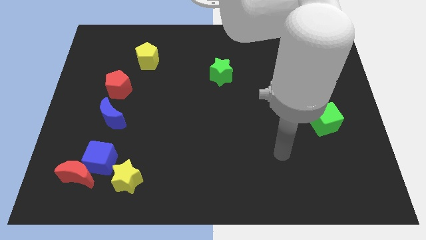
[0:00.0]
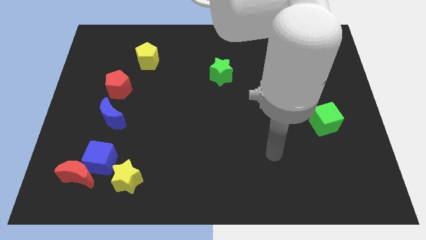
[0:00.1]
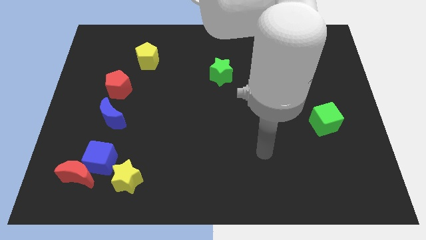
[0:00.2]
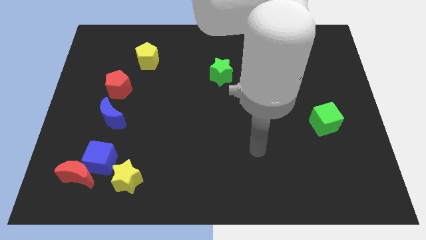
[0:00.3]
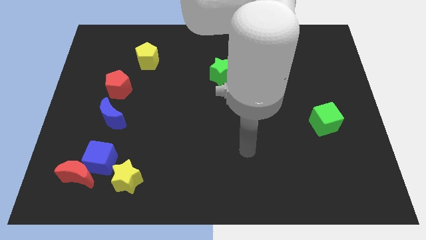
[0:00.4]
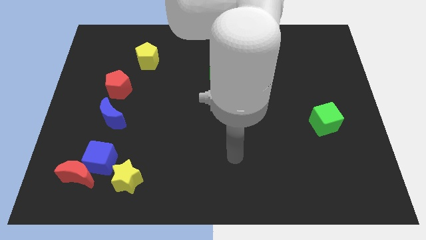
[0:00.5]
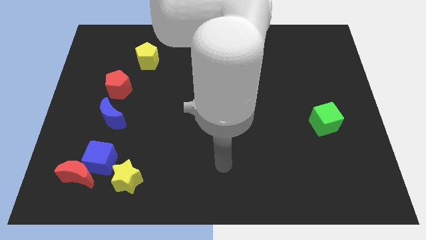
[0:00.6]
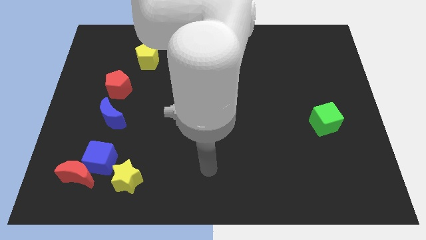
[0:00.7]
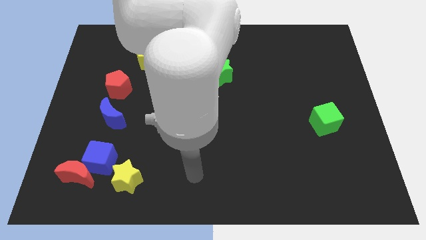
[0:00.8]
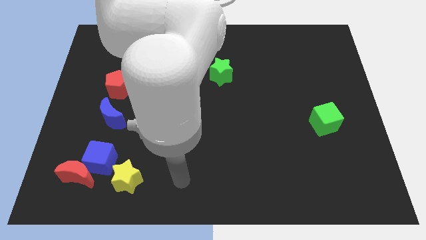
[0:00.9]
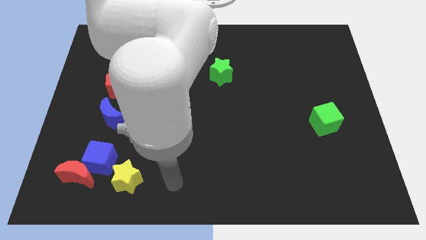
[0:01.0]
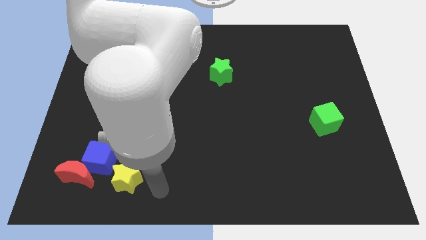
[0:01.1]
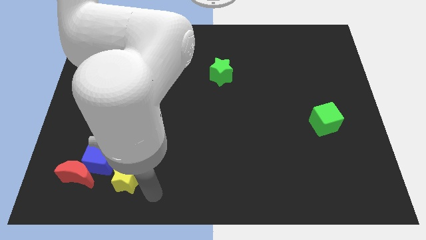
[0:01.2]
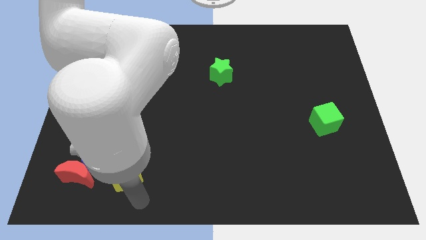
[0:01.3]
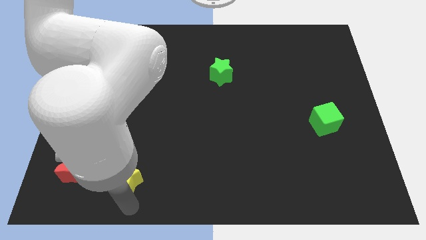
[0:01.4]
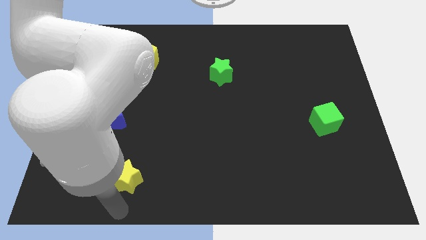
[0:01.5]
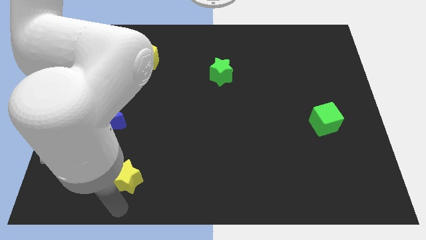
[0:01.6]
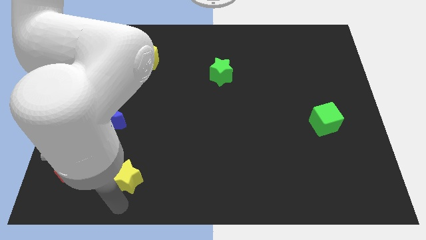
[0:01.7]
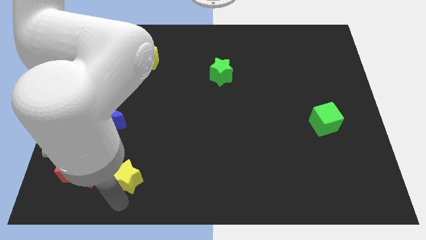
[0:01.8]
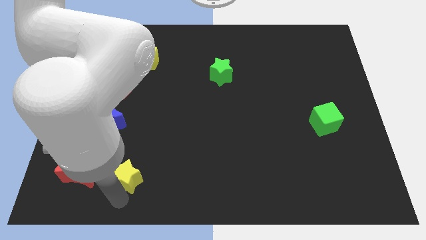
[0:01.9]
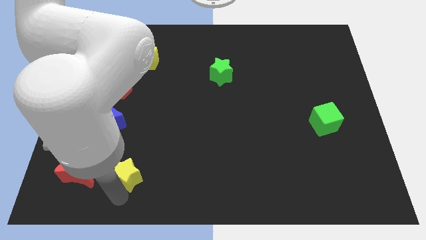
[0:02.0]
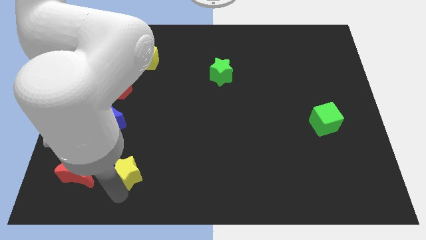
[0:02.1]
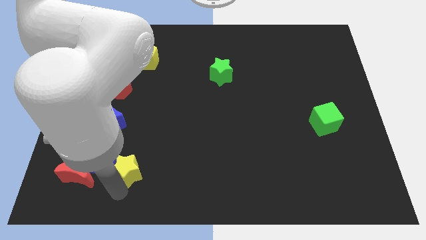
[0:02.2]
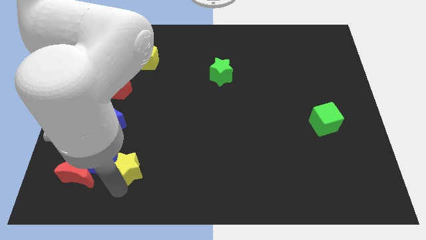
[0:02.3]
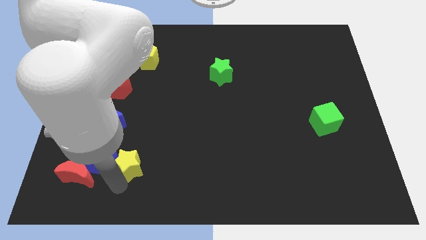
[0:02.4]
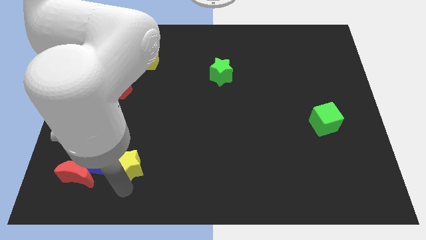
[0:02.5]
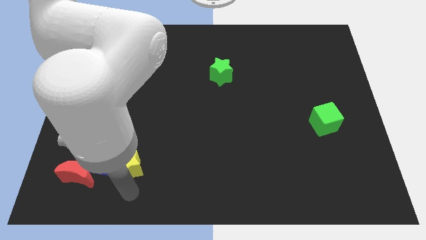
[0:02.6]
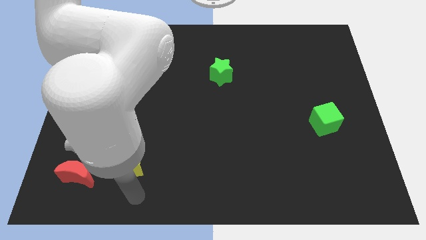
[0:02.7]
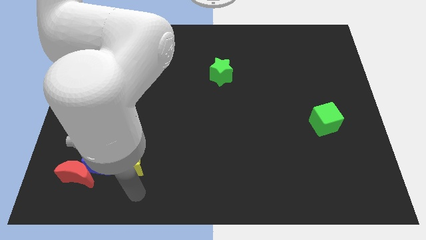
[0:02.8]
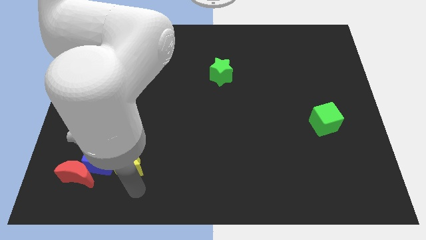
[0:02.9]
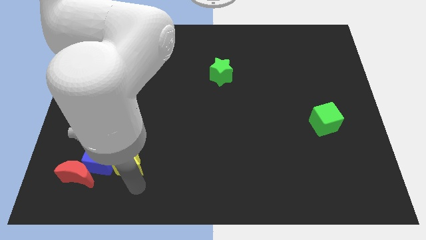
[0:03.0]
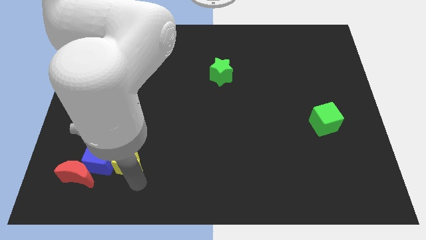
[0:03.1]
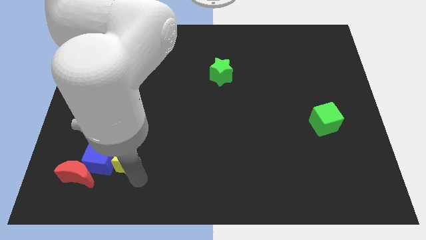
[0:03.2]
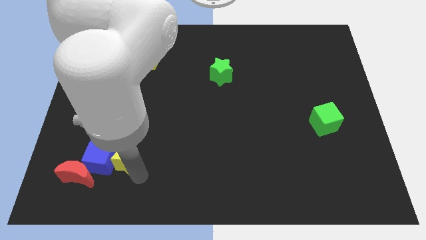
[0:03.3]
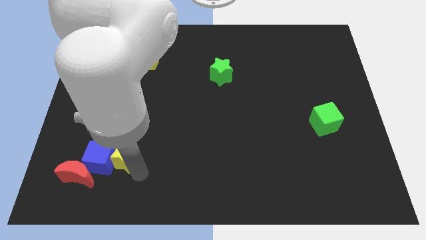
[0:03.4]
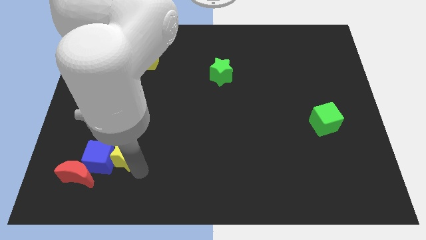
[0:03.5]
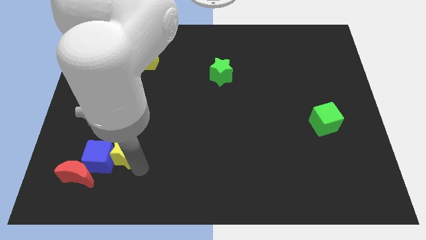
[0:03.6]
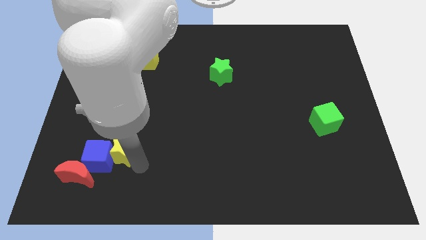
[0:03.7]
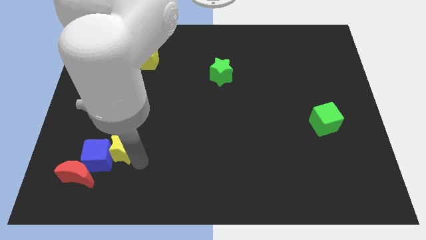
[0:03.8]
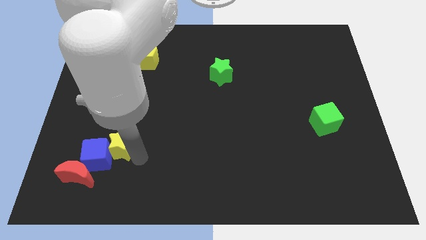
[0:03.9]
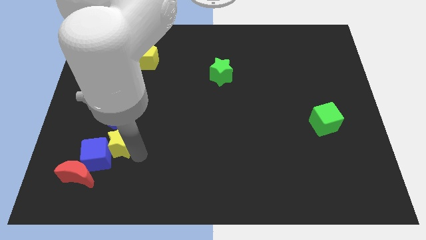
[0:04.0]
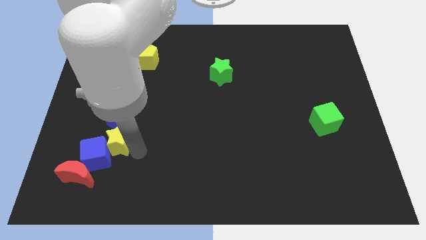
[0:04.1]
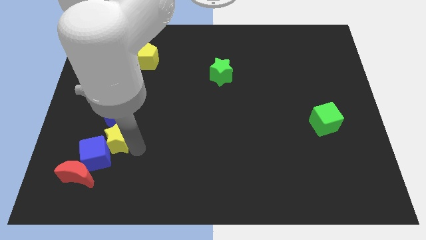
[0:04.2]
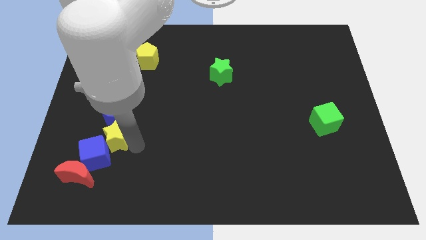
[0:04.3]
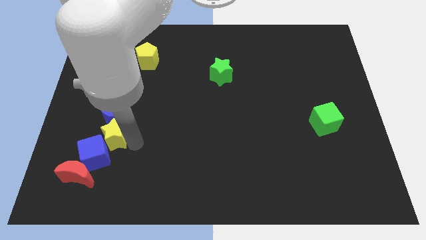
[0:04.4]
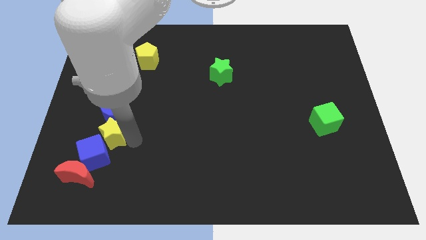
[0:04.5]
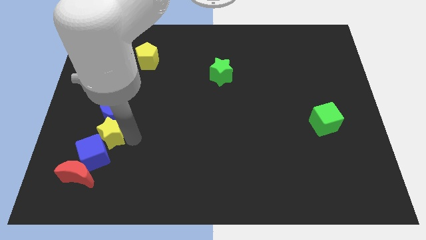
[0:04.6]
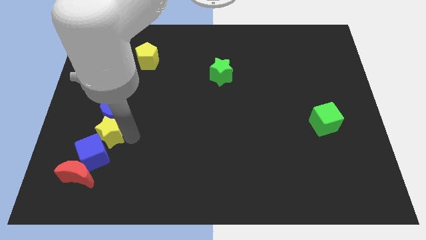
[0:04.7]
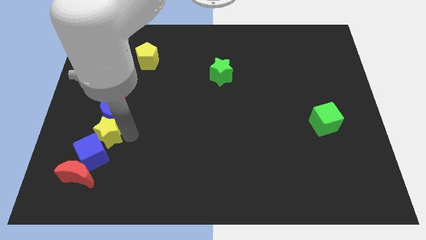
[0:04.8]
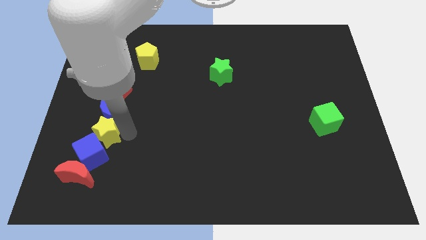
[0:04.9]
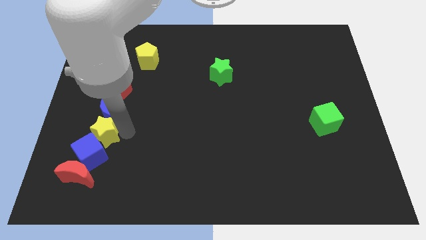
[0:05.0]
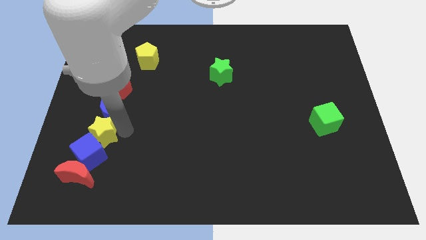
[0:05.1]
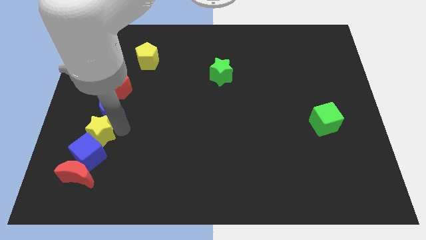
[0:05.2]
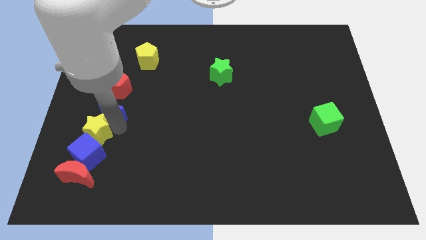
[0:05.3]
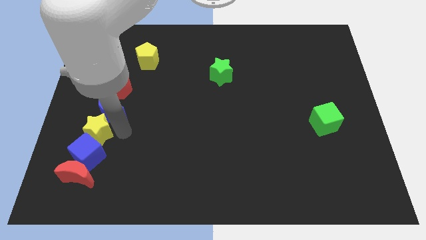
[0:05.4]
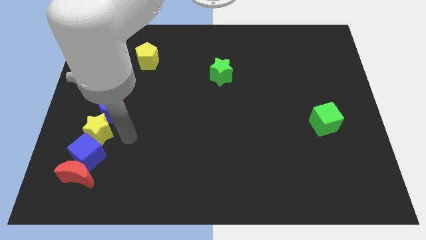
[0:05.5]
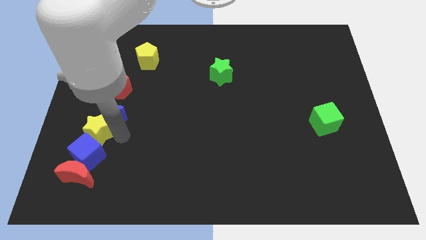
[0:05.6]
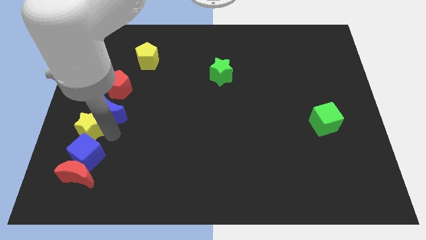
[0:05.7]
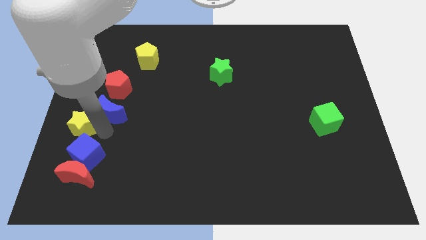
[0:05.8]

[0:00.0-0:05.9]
push the yellow star to the left side

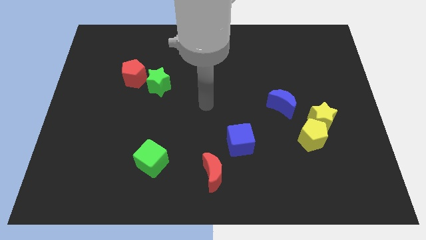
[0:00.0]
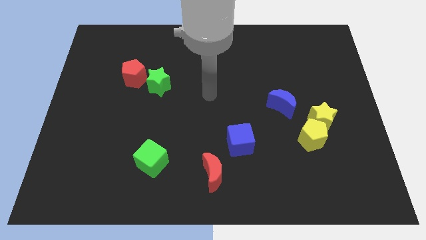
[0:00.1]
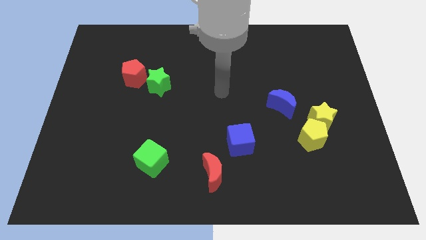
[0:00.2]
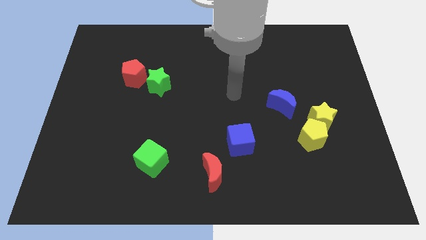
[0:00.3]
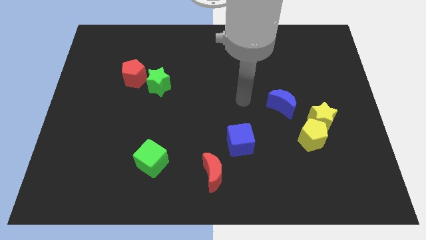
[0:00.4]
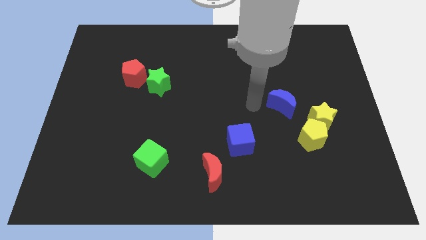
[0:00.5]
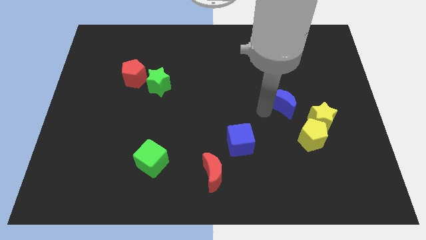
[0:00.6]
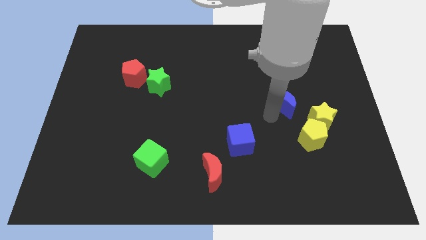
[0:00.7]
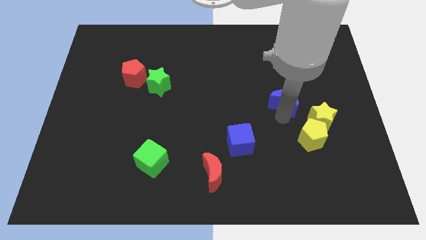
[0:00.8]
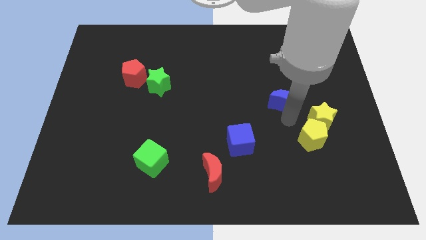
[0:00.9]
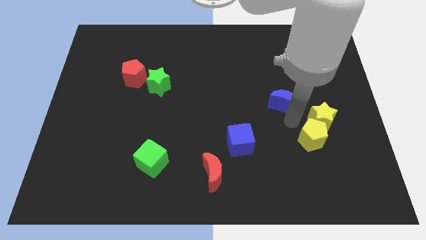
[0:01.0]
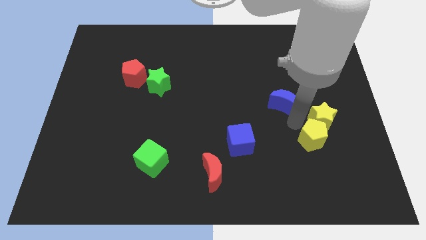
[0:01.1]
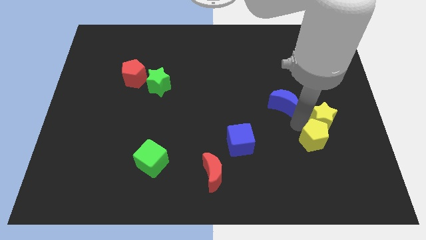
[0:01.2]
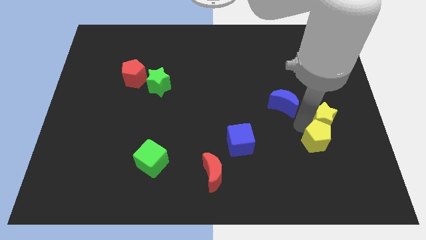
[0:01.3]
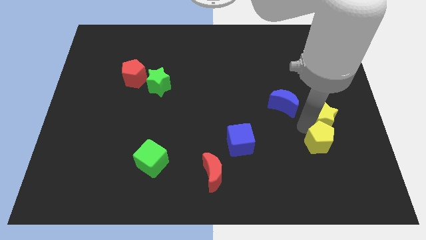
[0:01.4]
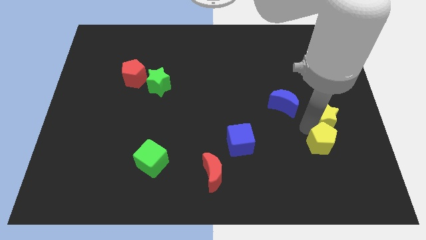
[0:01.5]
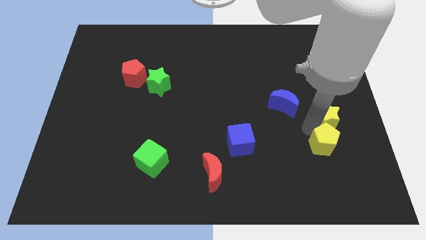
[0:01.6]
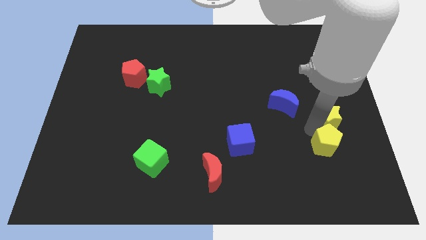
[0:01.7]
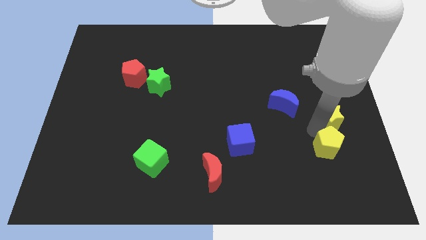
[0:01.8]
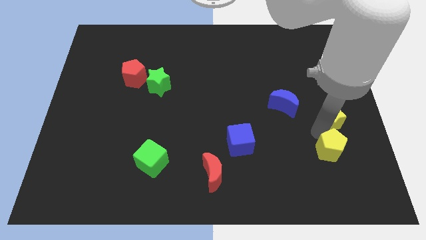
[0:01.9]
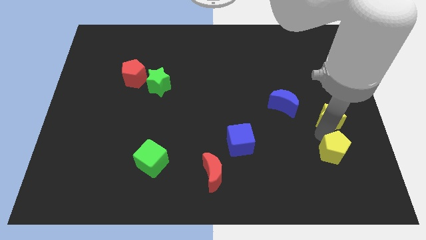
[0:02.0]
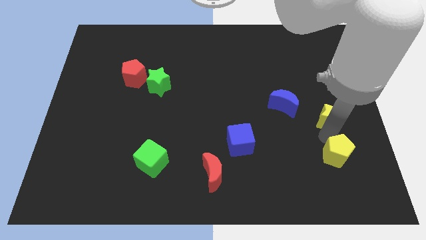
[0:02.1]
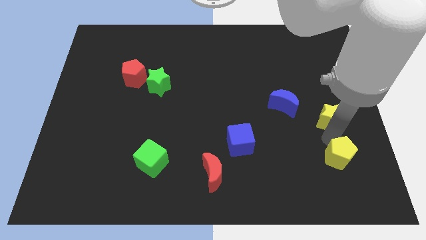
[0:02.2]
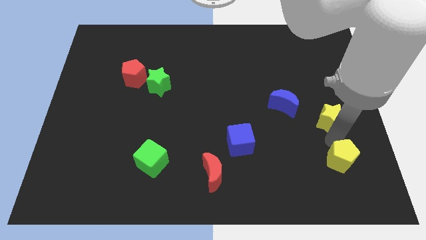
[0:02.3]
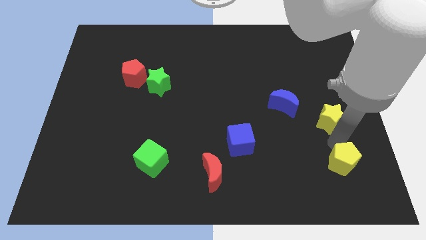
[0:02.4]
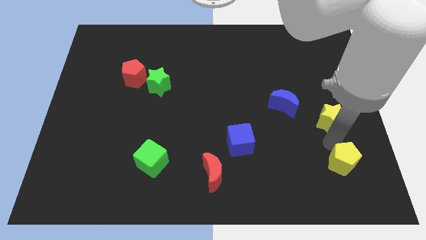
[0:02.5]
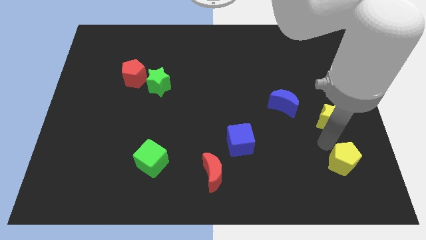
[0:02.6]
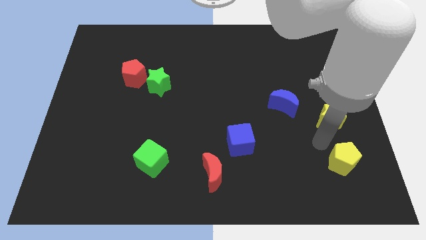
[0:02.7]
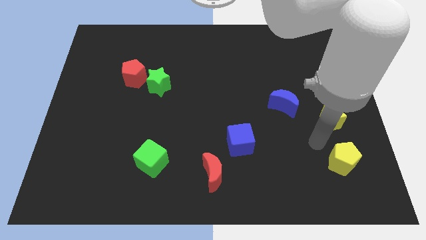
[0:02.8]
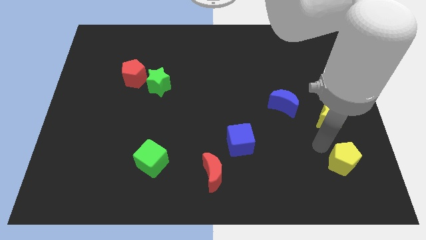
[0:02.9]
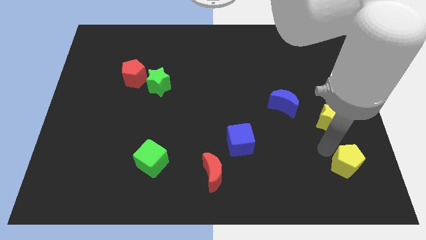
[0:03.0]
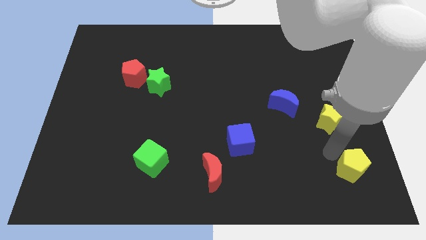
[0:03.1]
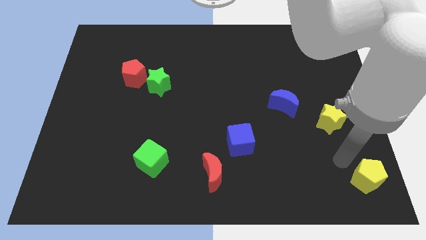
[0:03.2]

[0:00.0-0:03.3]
move the yellow pentagon to the lower right corner
